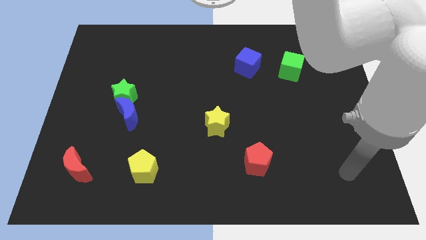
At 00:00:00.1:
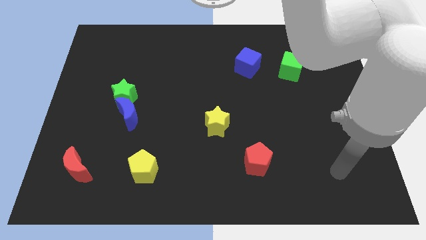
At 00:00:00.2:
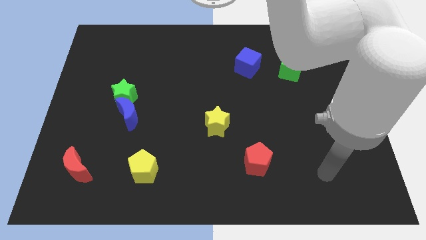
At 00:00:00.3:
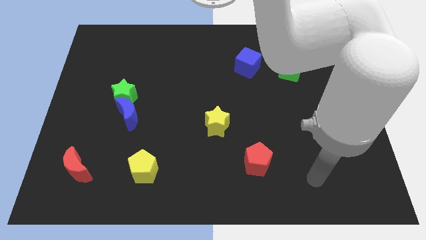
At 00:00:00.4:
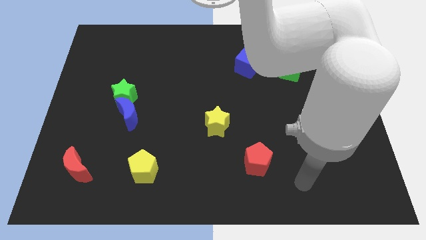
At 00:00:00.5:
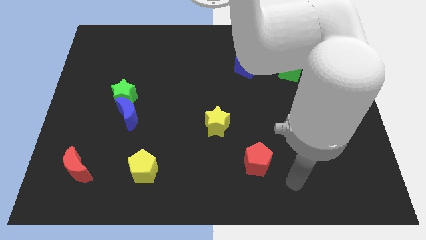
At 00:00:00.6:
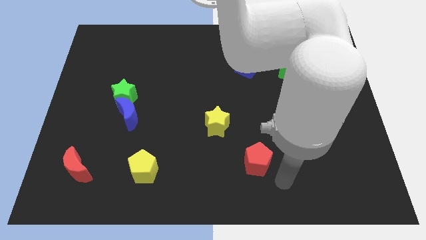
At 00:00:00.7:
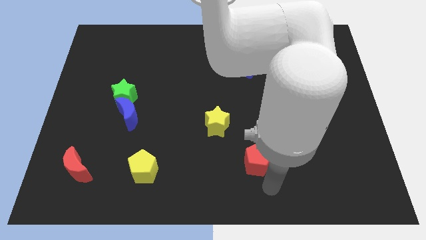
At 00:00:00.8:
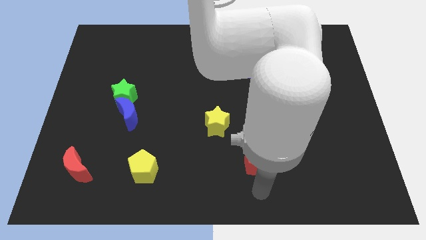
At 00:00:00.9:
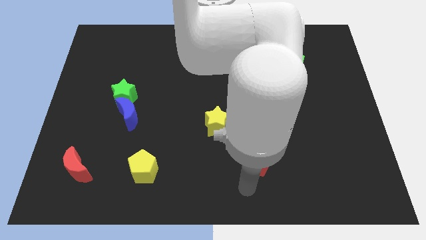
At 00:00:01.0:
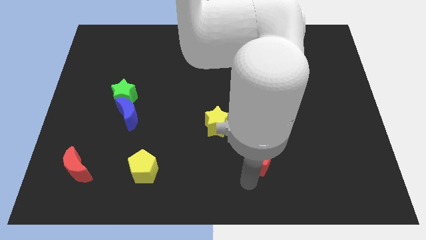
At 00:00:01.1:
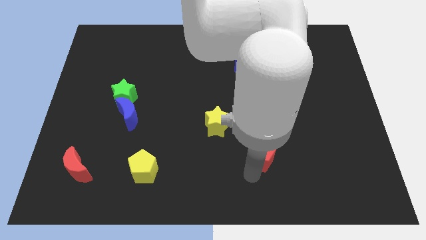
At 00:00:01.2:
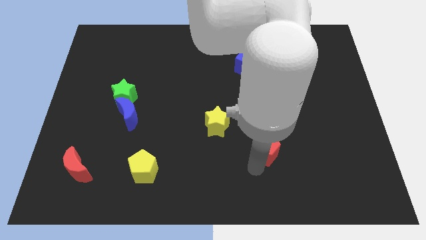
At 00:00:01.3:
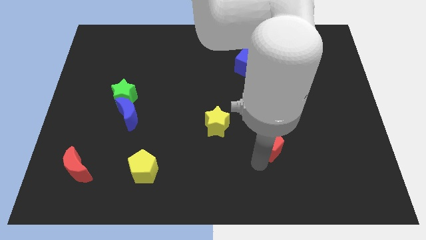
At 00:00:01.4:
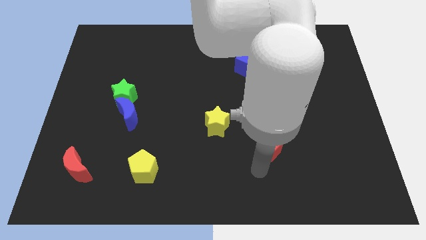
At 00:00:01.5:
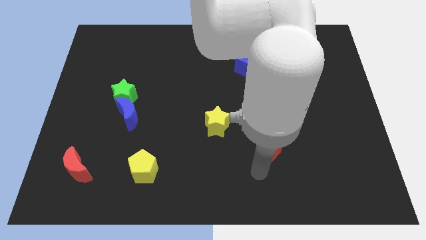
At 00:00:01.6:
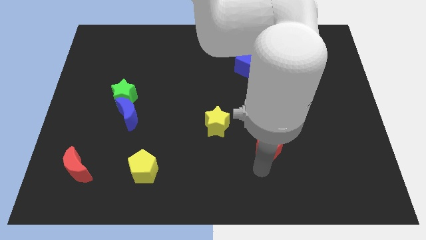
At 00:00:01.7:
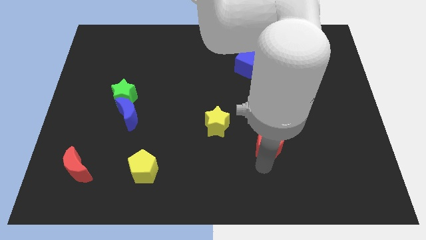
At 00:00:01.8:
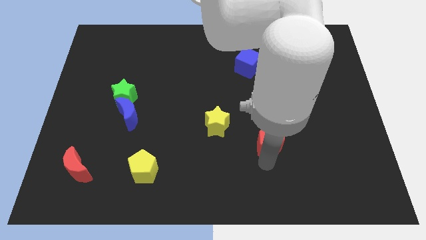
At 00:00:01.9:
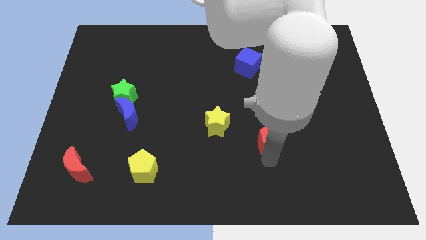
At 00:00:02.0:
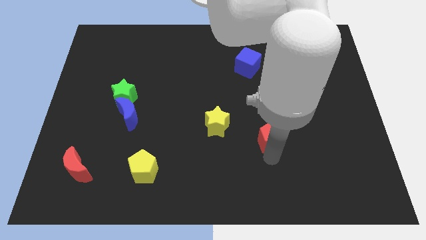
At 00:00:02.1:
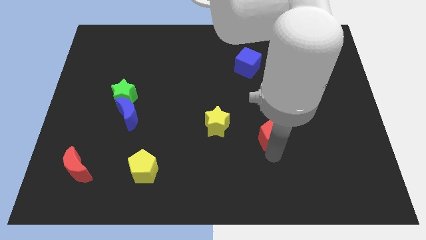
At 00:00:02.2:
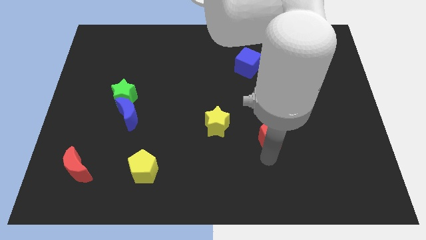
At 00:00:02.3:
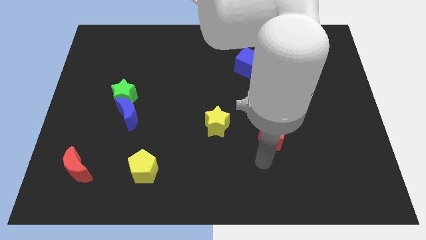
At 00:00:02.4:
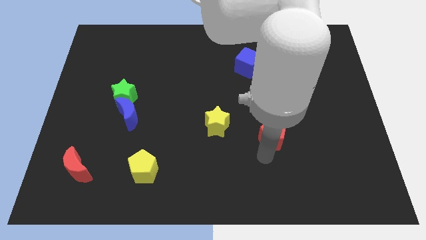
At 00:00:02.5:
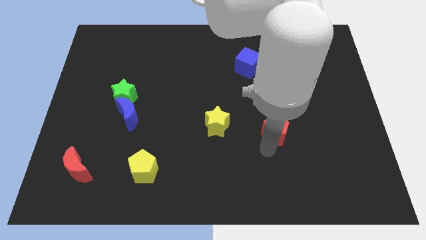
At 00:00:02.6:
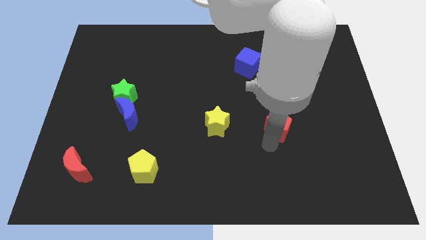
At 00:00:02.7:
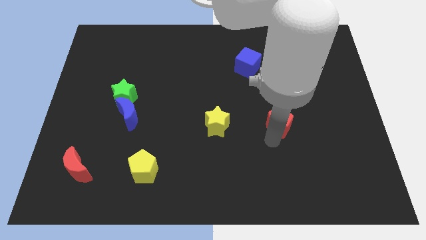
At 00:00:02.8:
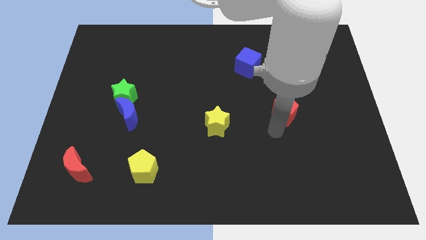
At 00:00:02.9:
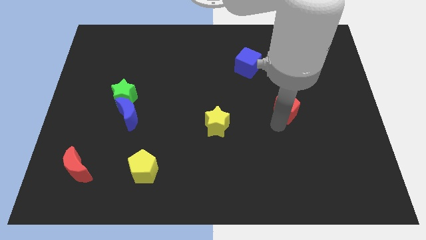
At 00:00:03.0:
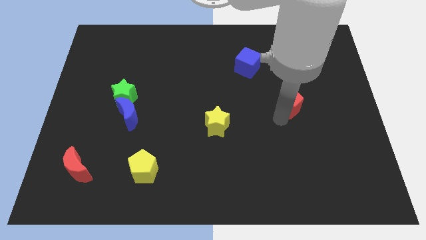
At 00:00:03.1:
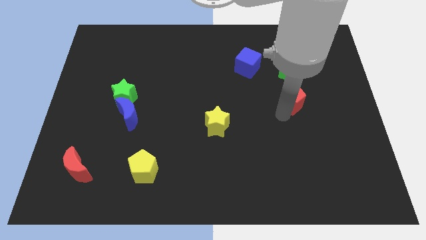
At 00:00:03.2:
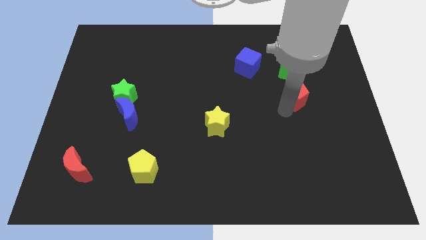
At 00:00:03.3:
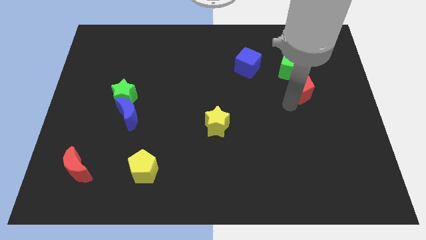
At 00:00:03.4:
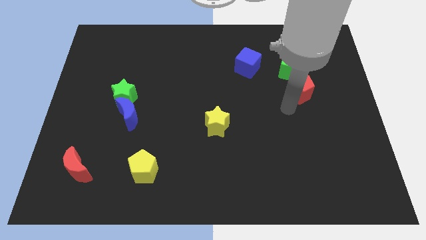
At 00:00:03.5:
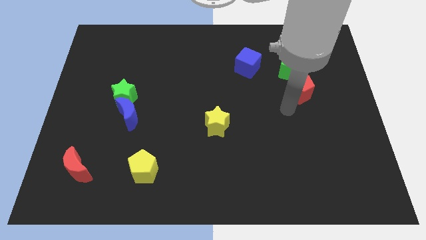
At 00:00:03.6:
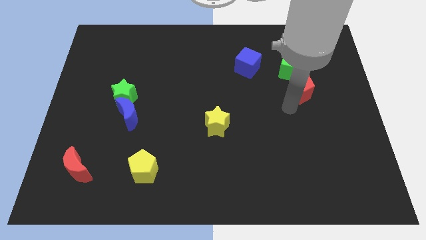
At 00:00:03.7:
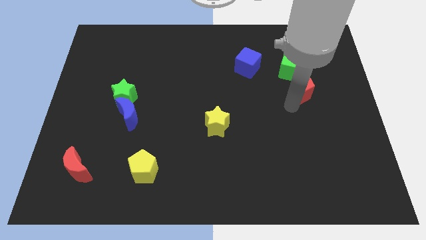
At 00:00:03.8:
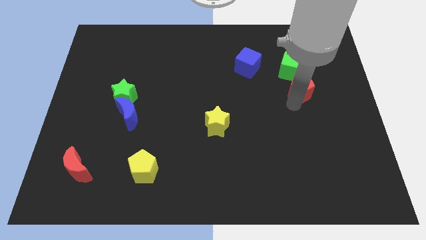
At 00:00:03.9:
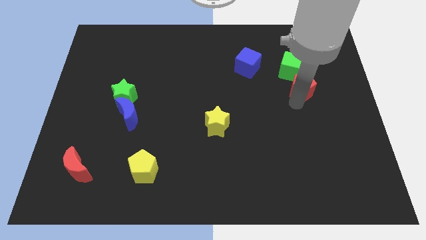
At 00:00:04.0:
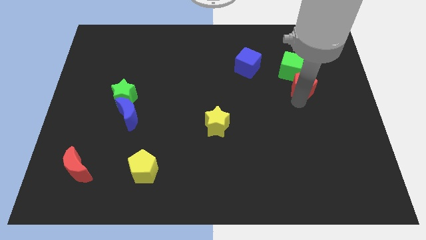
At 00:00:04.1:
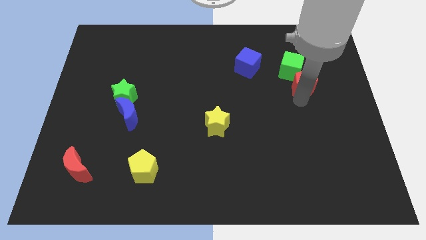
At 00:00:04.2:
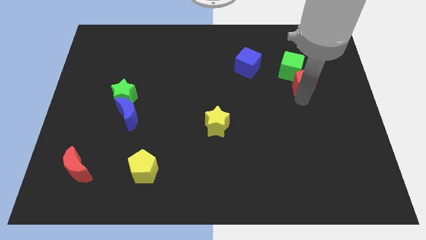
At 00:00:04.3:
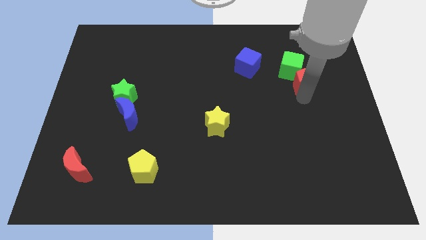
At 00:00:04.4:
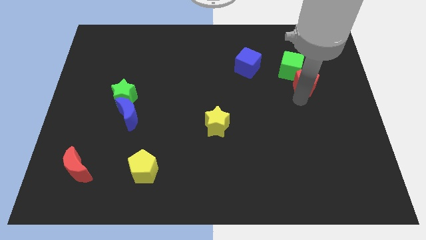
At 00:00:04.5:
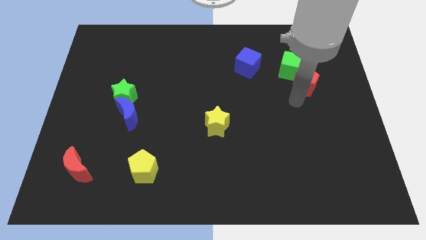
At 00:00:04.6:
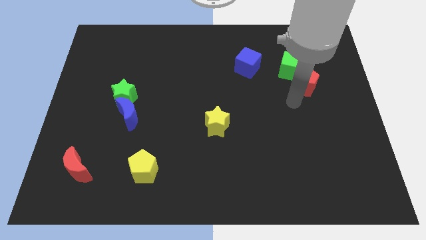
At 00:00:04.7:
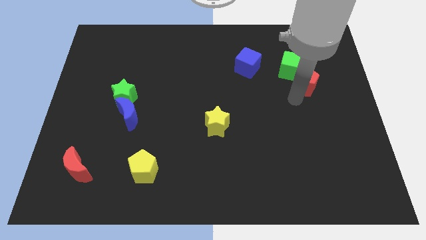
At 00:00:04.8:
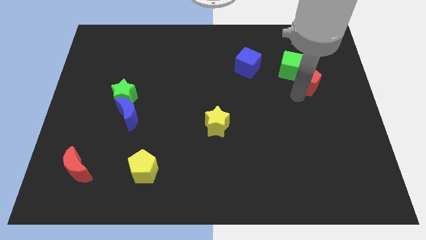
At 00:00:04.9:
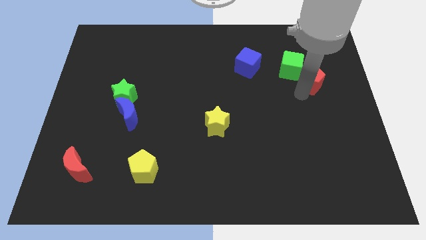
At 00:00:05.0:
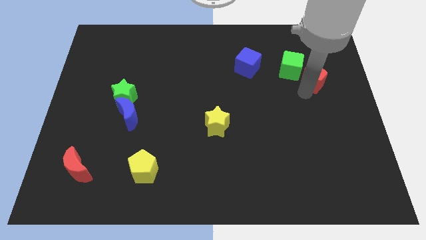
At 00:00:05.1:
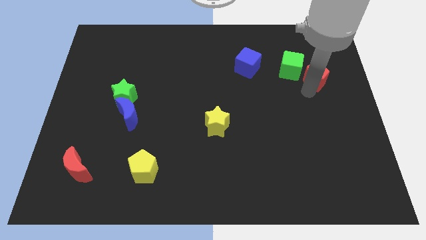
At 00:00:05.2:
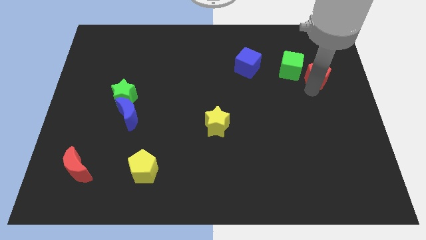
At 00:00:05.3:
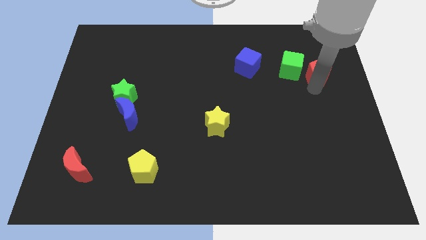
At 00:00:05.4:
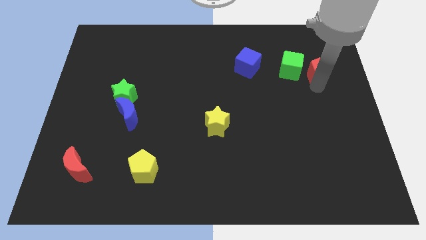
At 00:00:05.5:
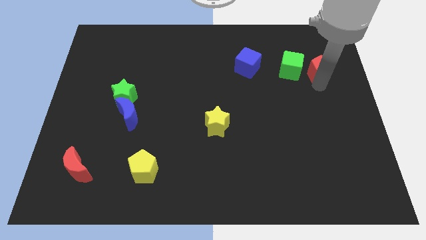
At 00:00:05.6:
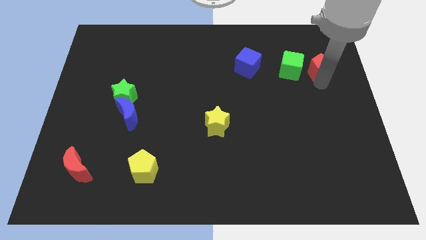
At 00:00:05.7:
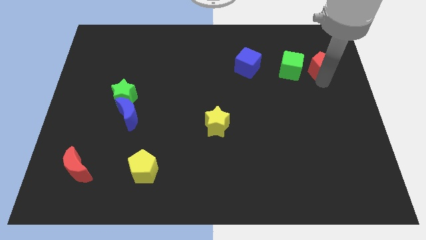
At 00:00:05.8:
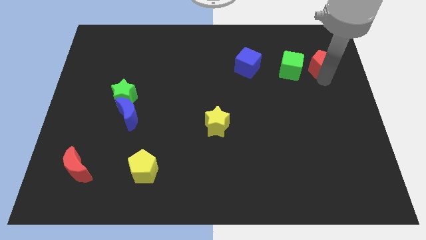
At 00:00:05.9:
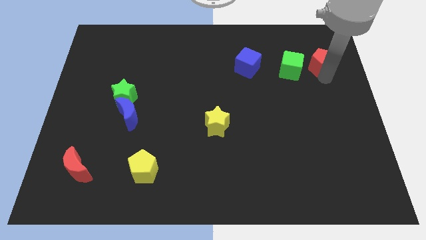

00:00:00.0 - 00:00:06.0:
push the red pentagon diagonally up and to the right of the green cube

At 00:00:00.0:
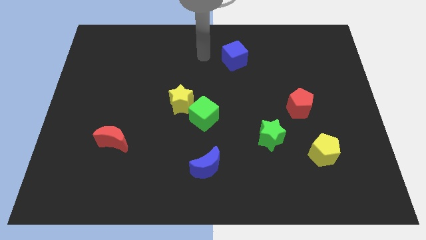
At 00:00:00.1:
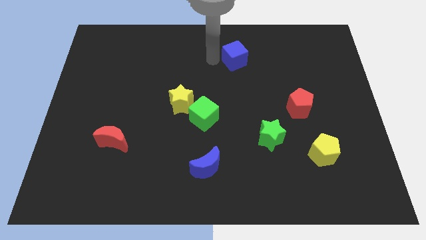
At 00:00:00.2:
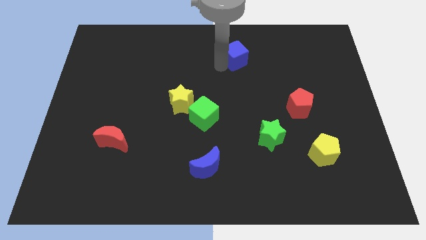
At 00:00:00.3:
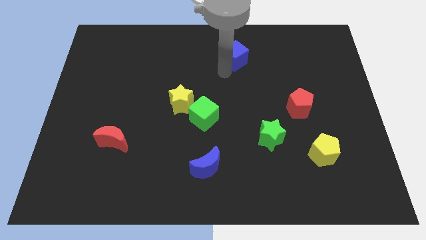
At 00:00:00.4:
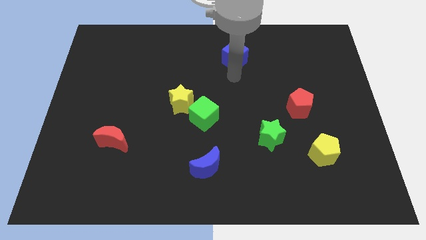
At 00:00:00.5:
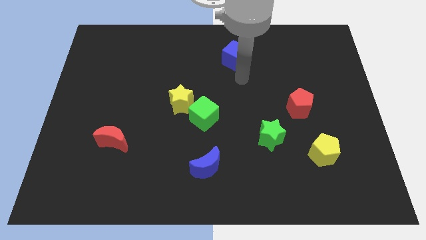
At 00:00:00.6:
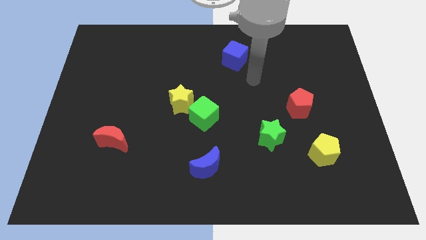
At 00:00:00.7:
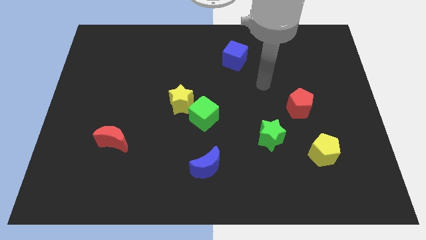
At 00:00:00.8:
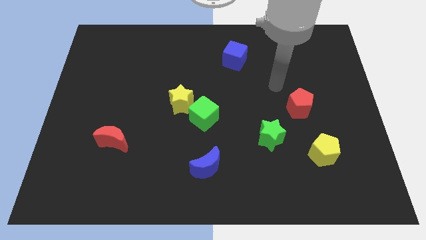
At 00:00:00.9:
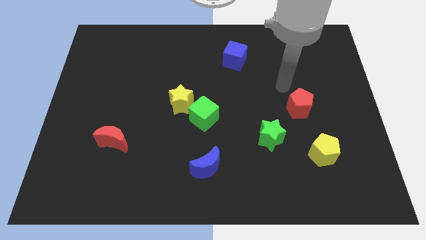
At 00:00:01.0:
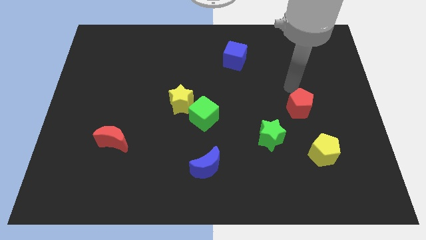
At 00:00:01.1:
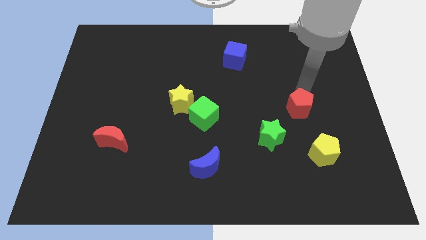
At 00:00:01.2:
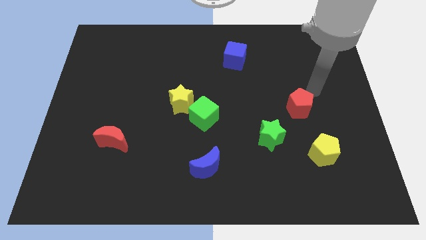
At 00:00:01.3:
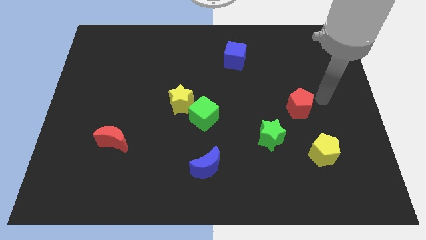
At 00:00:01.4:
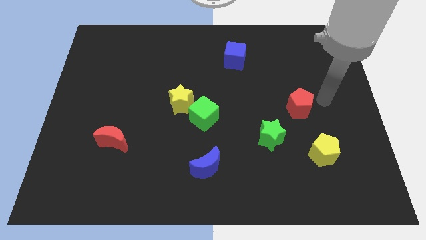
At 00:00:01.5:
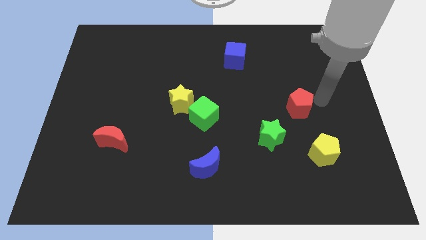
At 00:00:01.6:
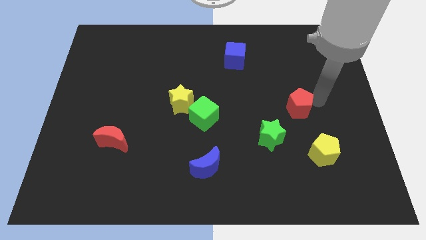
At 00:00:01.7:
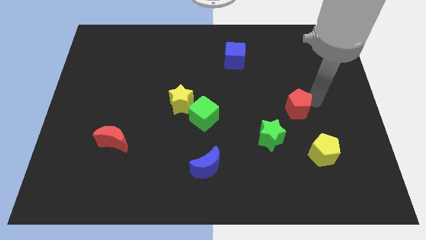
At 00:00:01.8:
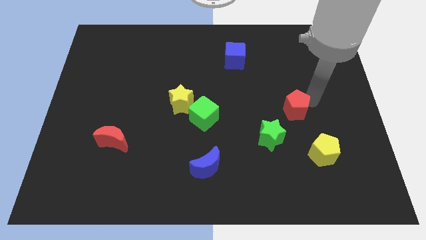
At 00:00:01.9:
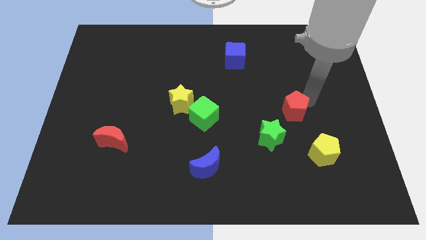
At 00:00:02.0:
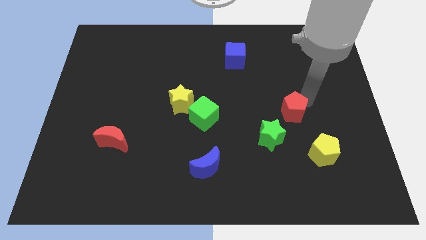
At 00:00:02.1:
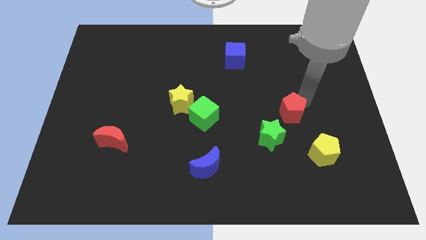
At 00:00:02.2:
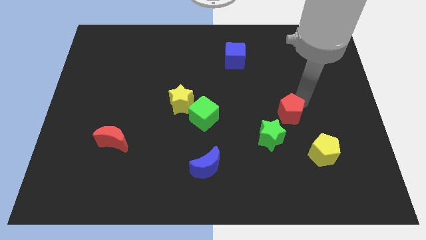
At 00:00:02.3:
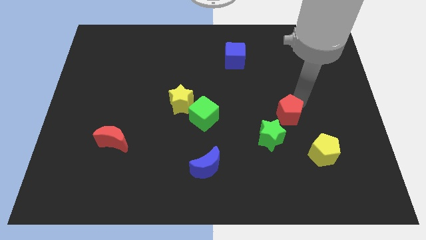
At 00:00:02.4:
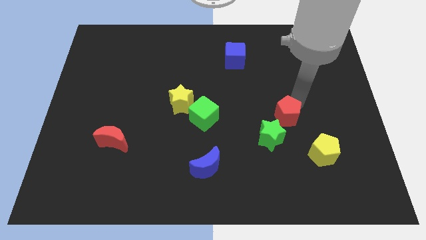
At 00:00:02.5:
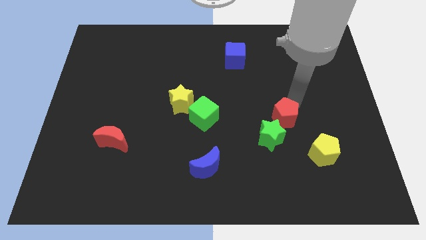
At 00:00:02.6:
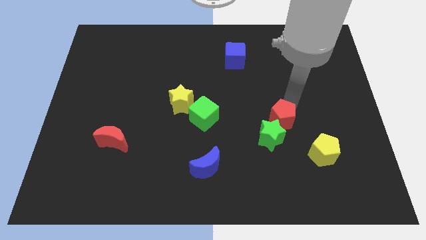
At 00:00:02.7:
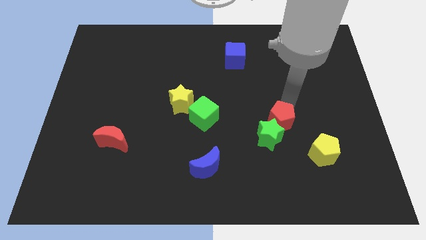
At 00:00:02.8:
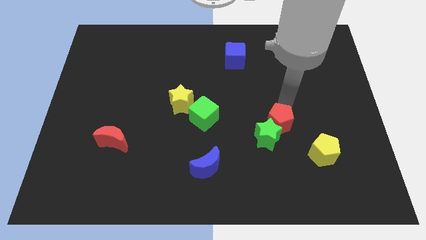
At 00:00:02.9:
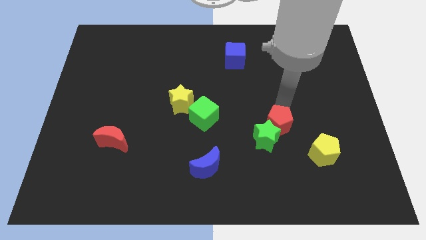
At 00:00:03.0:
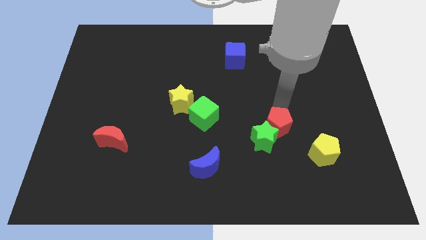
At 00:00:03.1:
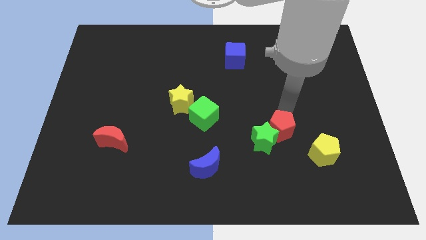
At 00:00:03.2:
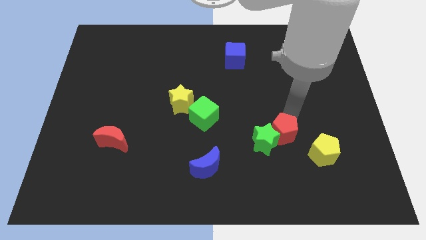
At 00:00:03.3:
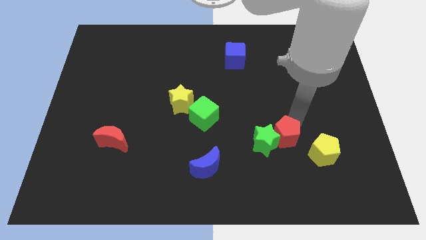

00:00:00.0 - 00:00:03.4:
push the red pentagon to the left of the yellow pentagon
